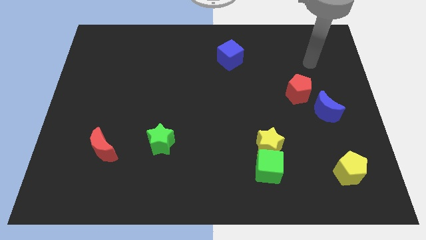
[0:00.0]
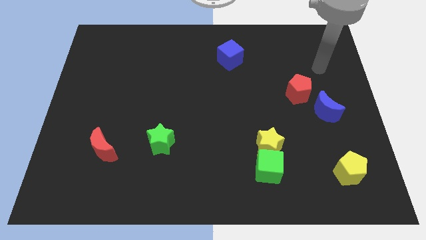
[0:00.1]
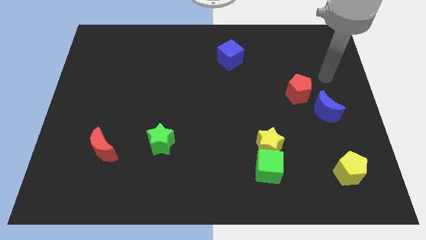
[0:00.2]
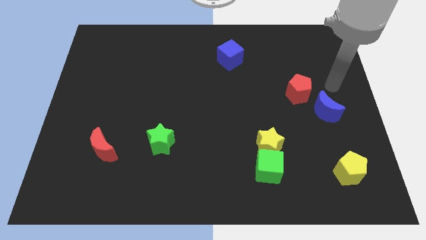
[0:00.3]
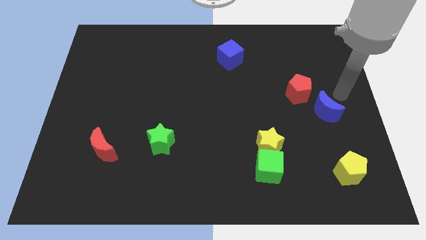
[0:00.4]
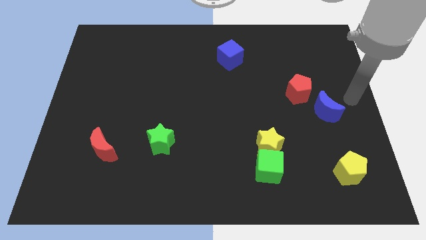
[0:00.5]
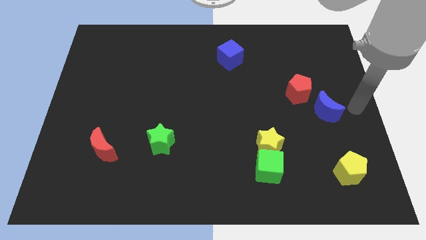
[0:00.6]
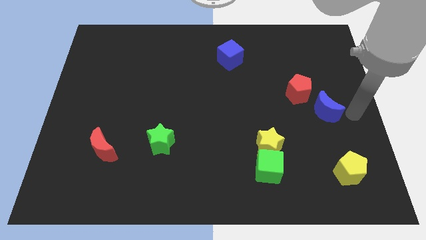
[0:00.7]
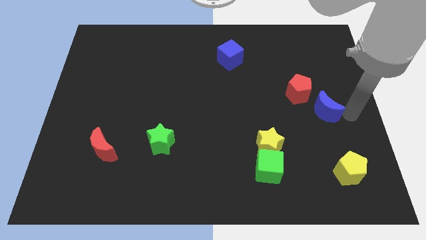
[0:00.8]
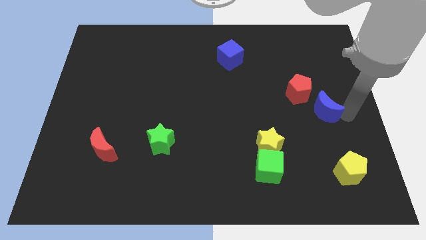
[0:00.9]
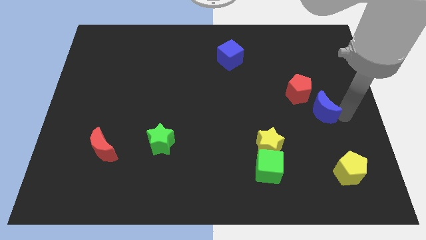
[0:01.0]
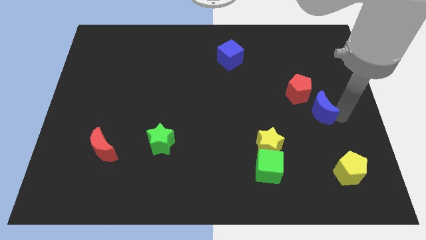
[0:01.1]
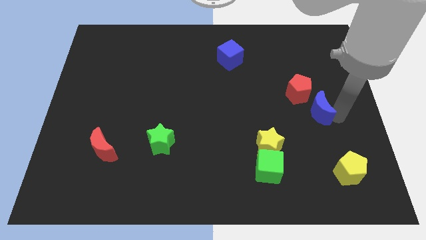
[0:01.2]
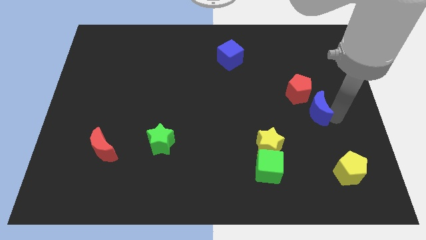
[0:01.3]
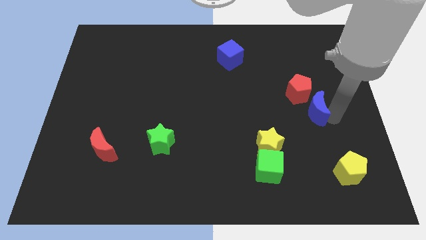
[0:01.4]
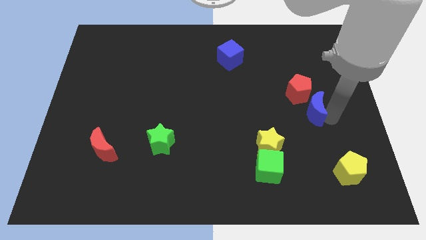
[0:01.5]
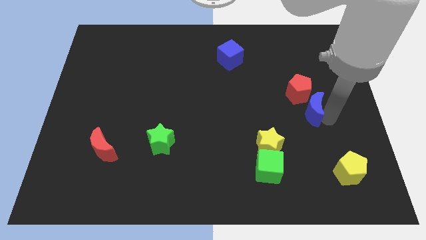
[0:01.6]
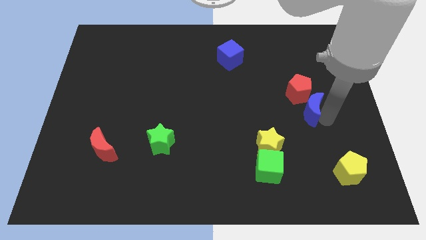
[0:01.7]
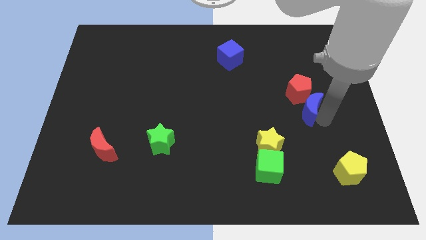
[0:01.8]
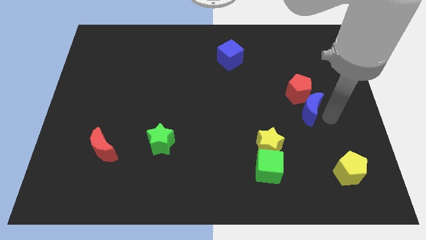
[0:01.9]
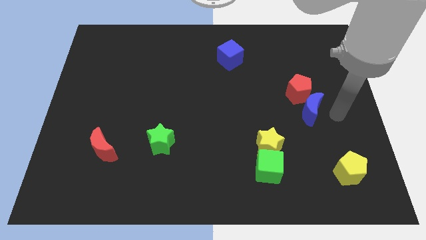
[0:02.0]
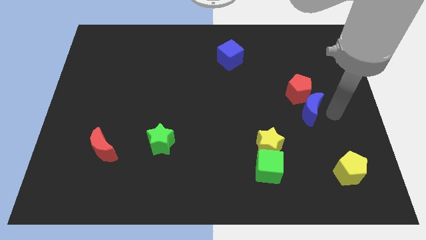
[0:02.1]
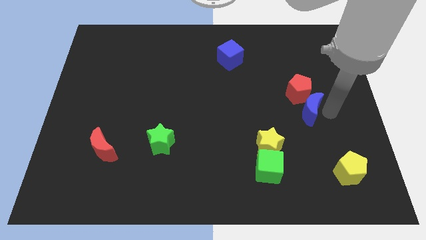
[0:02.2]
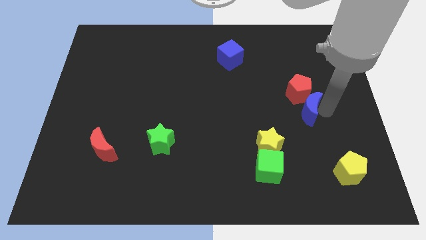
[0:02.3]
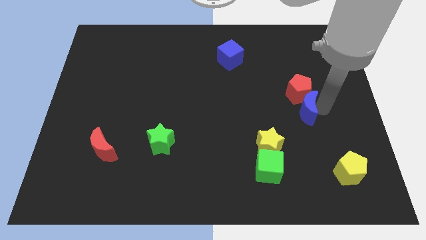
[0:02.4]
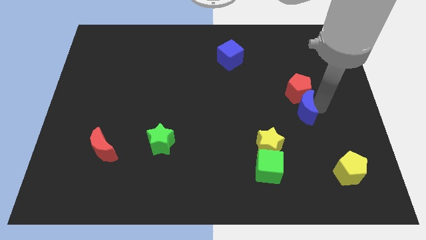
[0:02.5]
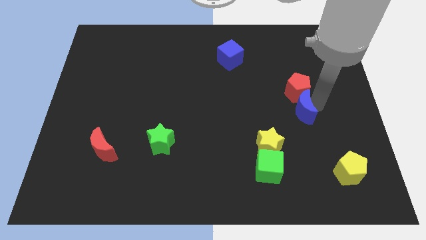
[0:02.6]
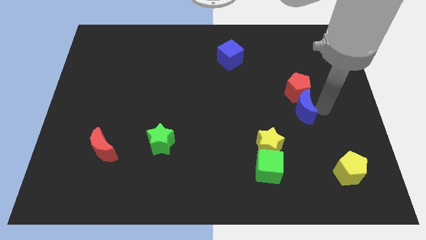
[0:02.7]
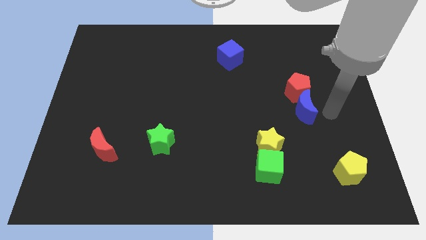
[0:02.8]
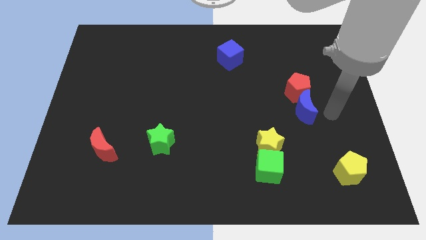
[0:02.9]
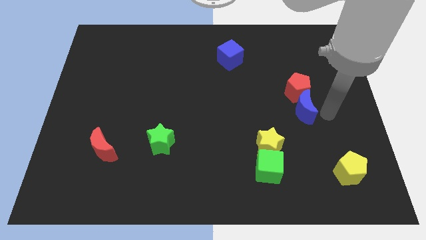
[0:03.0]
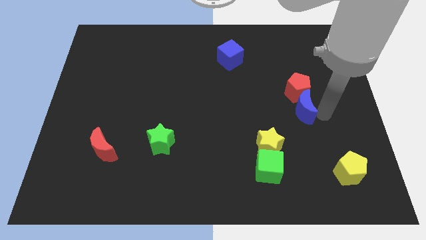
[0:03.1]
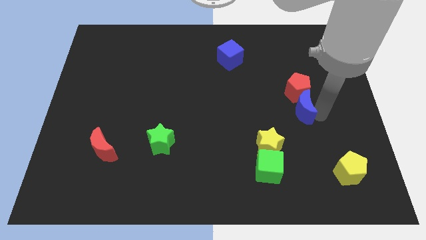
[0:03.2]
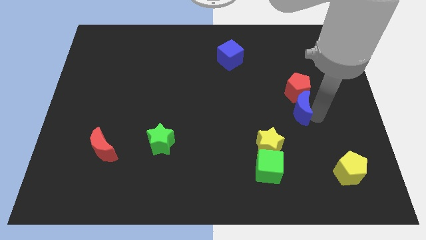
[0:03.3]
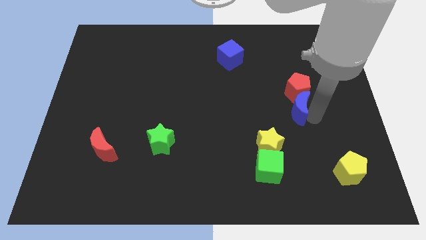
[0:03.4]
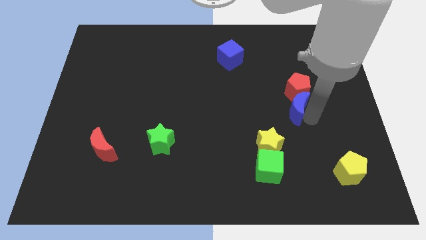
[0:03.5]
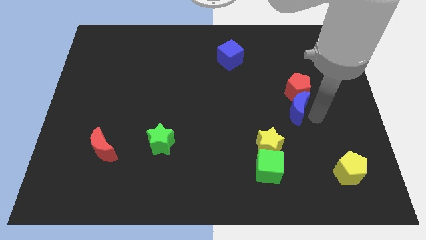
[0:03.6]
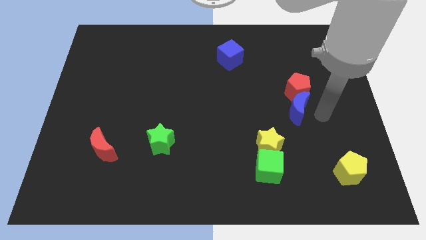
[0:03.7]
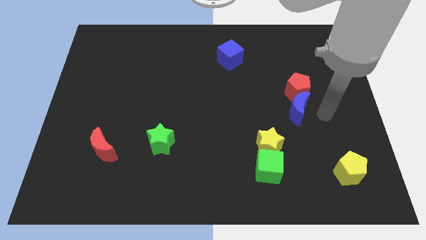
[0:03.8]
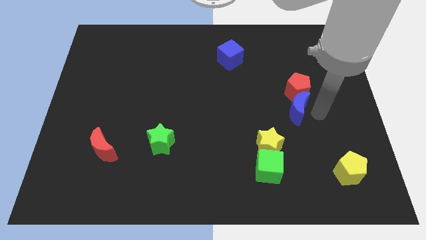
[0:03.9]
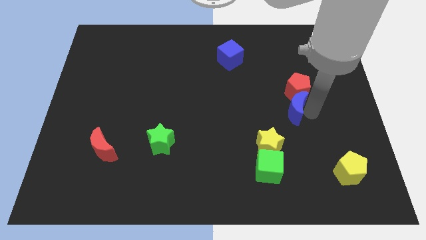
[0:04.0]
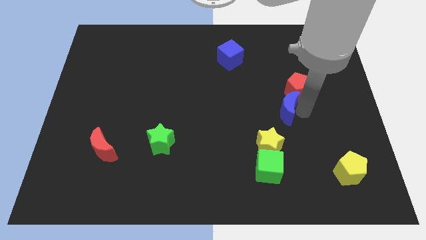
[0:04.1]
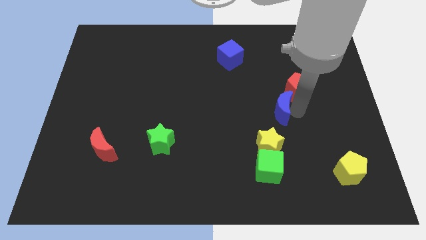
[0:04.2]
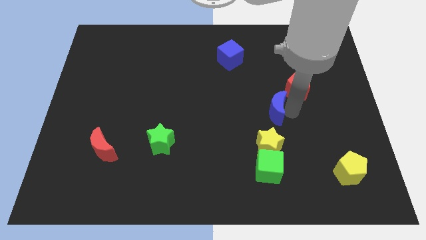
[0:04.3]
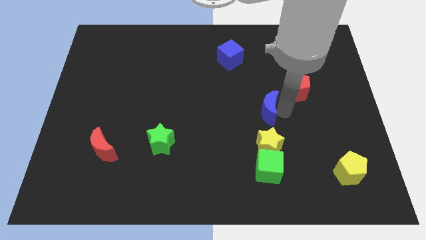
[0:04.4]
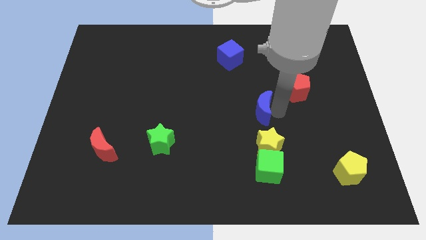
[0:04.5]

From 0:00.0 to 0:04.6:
move the blue moon to the center

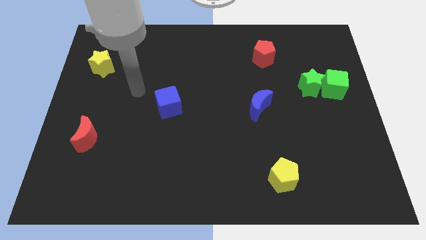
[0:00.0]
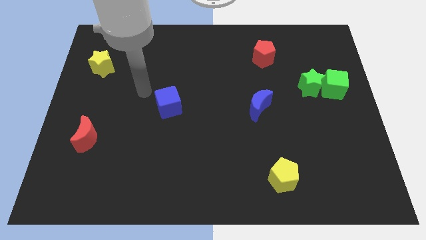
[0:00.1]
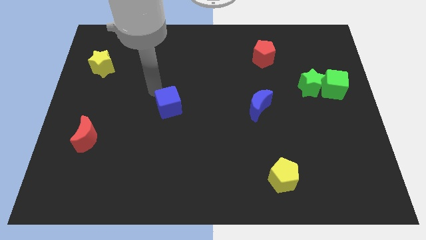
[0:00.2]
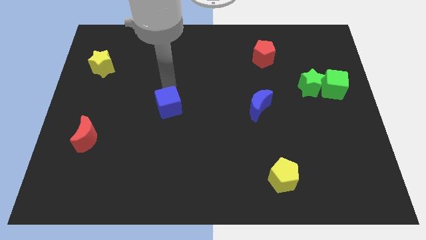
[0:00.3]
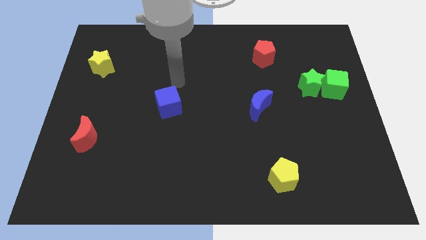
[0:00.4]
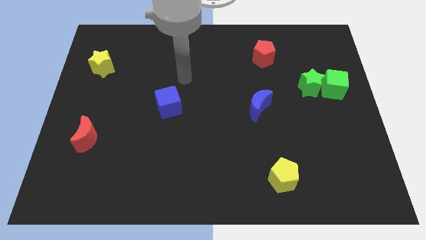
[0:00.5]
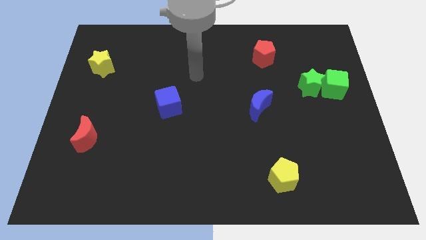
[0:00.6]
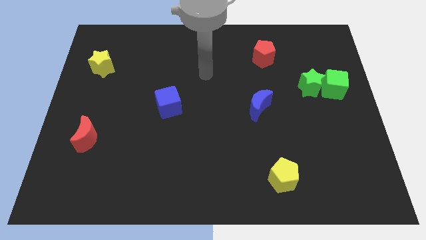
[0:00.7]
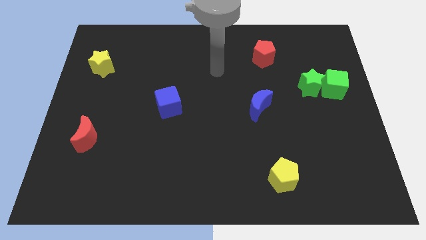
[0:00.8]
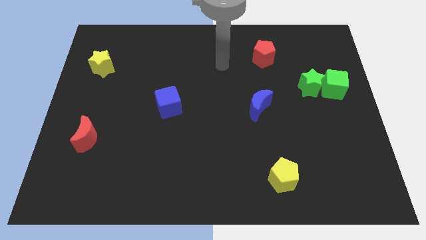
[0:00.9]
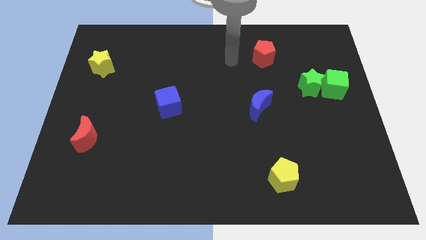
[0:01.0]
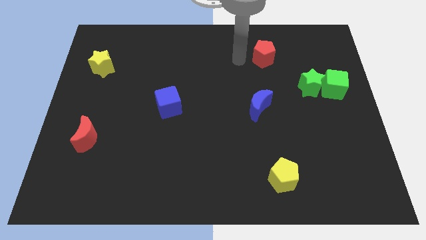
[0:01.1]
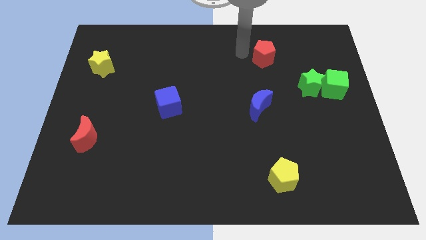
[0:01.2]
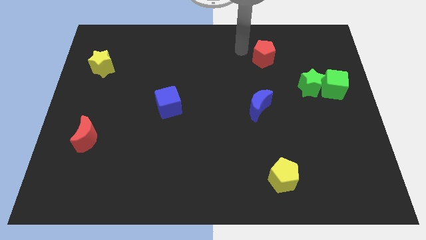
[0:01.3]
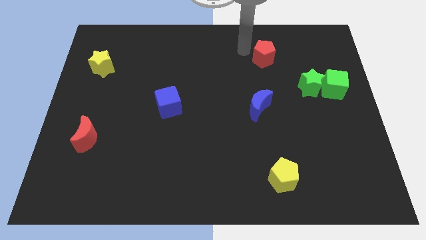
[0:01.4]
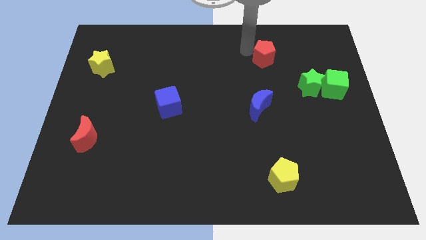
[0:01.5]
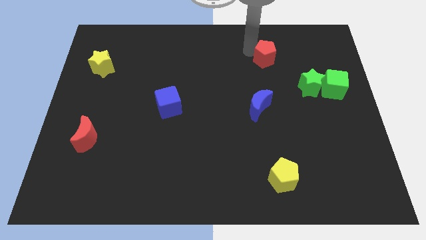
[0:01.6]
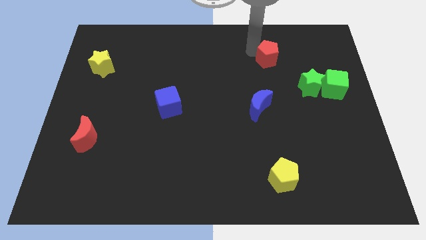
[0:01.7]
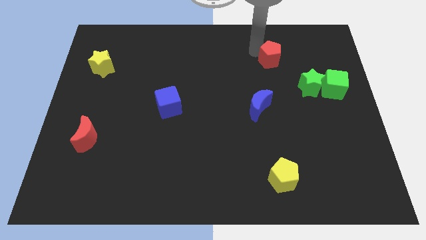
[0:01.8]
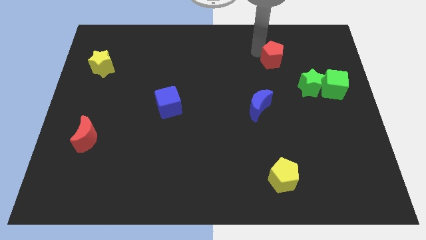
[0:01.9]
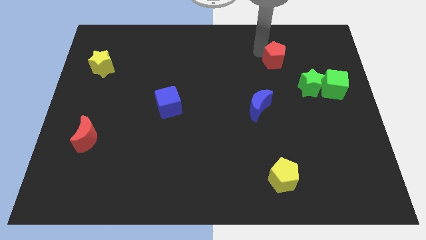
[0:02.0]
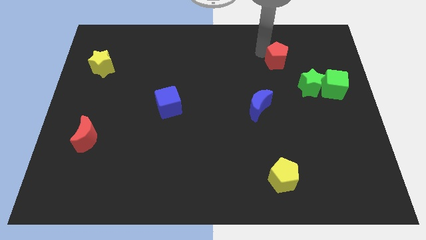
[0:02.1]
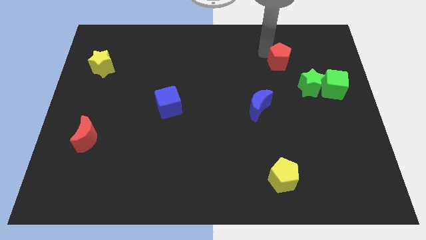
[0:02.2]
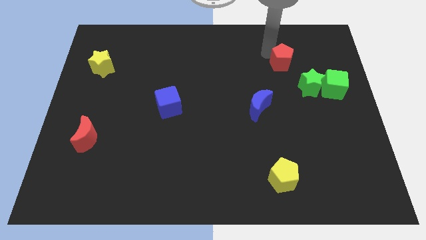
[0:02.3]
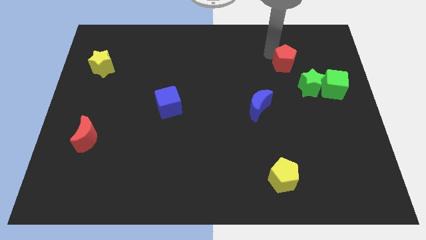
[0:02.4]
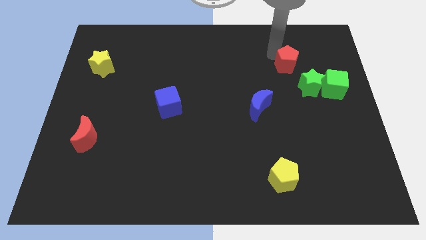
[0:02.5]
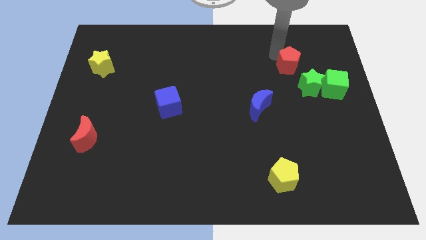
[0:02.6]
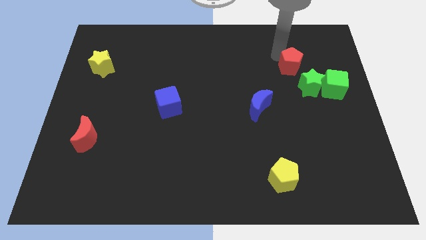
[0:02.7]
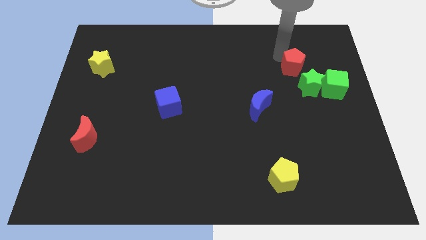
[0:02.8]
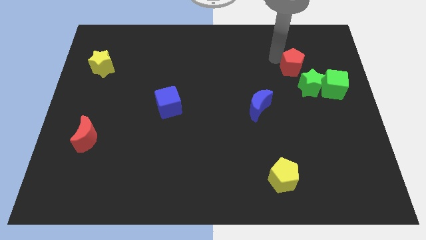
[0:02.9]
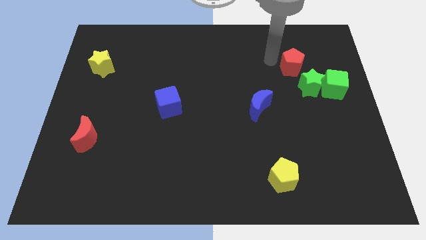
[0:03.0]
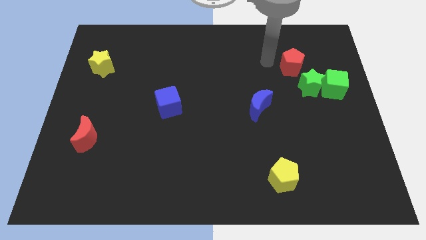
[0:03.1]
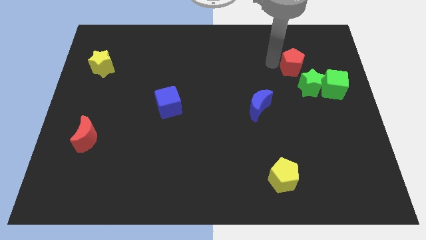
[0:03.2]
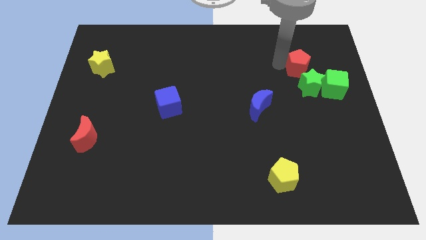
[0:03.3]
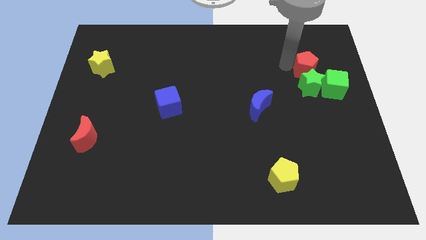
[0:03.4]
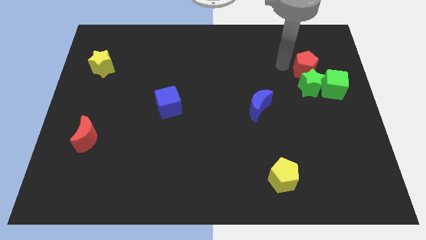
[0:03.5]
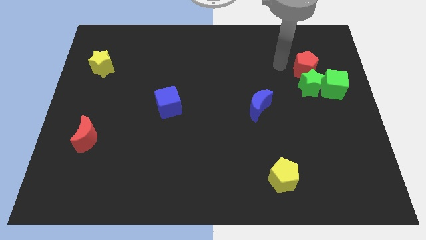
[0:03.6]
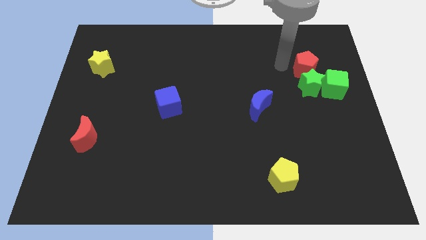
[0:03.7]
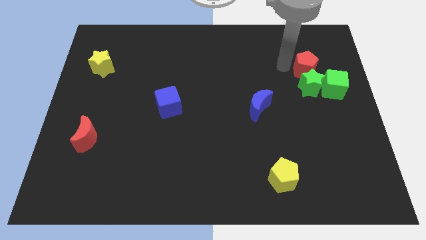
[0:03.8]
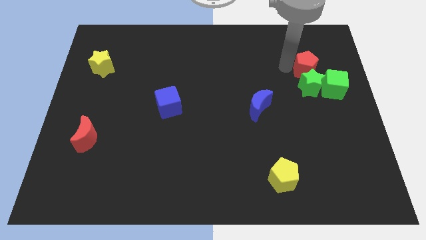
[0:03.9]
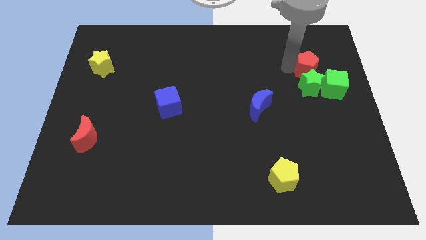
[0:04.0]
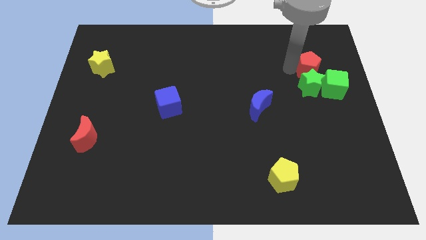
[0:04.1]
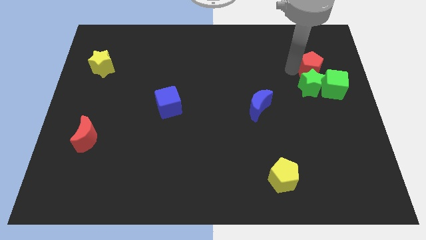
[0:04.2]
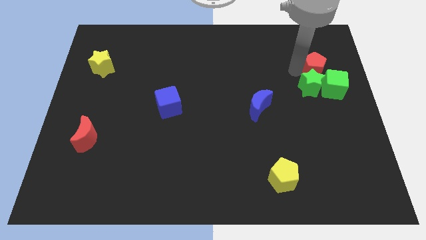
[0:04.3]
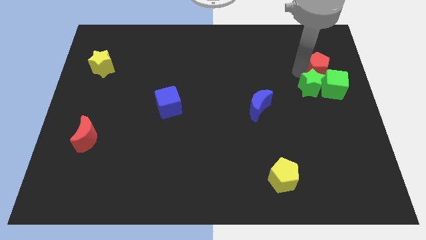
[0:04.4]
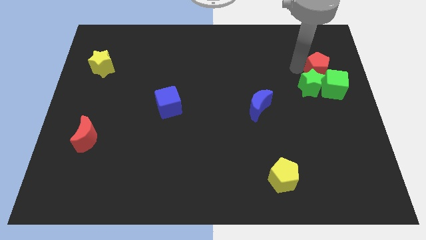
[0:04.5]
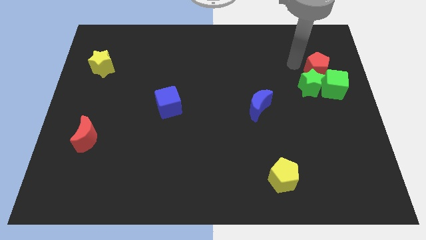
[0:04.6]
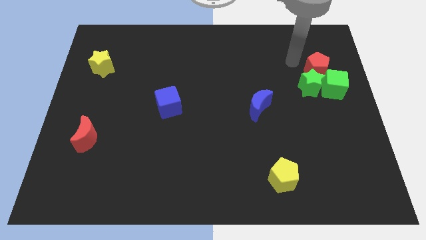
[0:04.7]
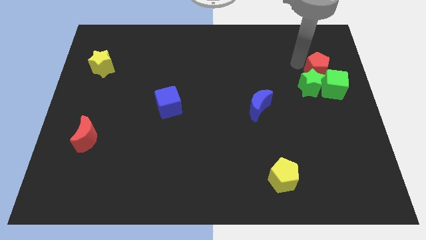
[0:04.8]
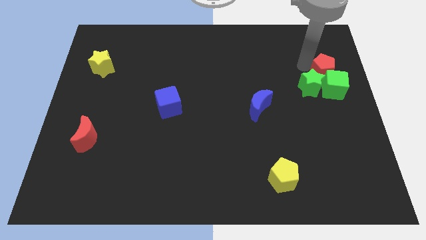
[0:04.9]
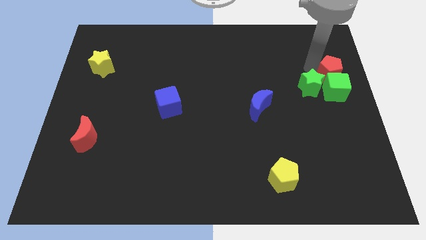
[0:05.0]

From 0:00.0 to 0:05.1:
slide the red pentagon to the right side of the board
